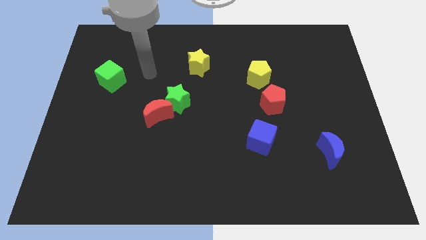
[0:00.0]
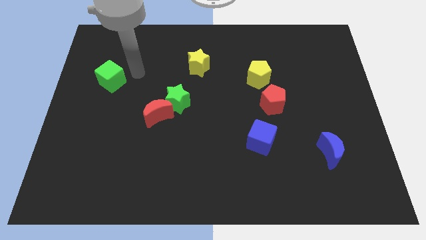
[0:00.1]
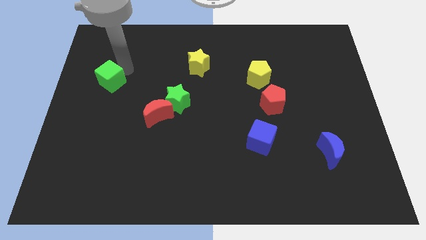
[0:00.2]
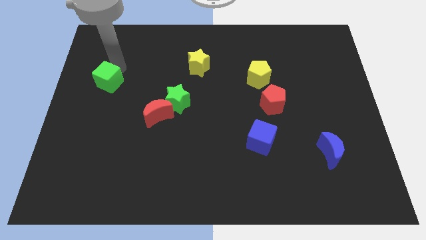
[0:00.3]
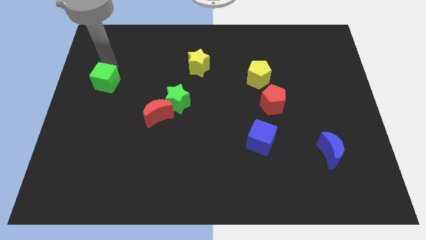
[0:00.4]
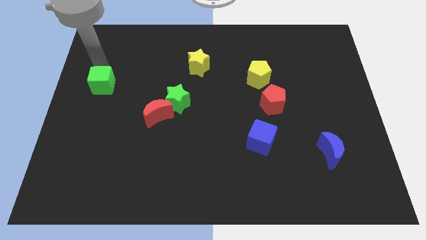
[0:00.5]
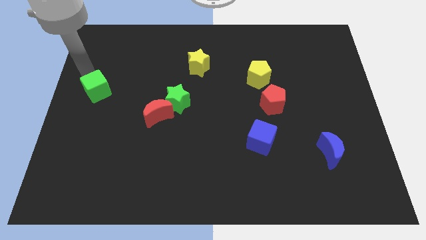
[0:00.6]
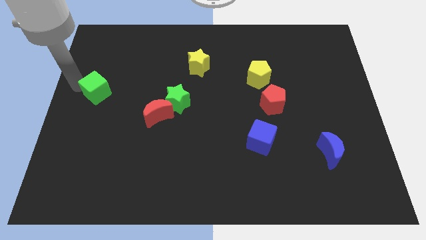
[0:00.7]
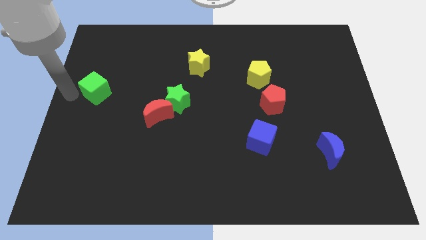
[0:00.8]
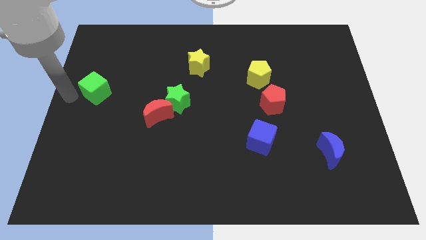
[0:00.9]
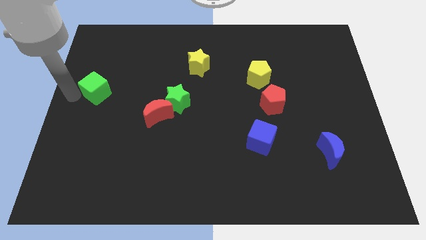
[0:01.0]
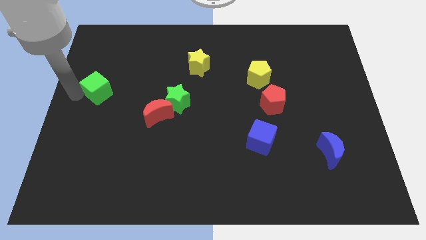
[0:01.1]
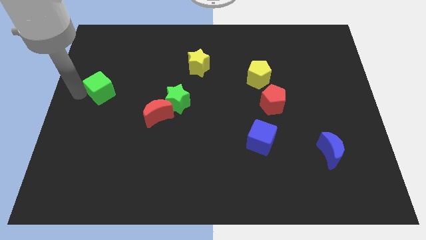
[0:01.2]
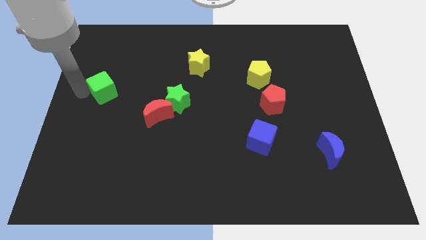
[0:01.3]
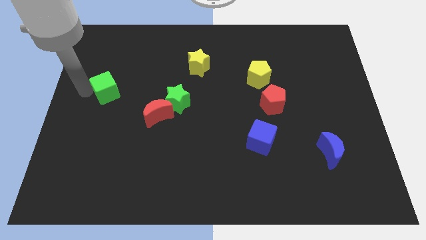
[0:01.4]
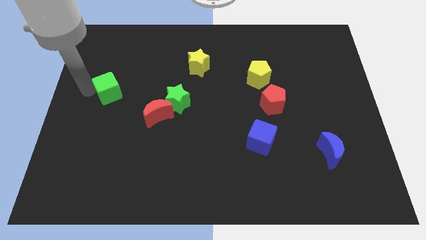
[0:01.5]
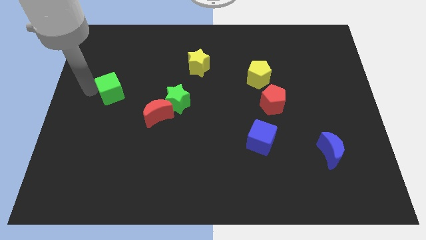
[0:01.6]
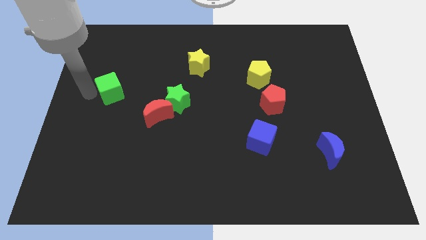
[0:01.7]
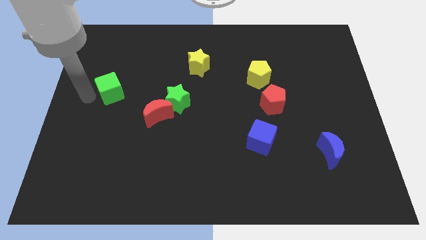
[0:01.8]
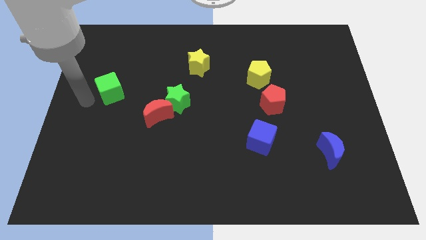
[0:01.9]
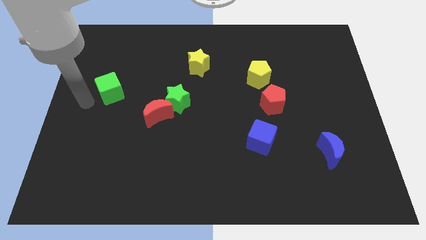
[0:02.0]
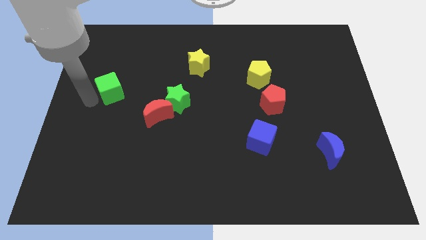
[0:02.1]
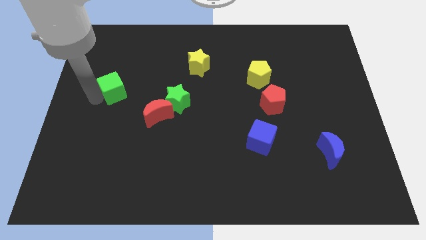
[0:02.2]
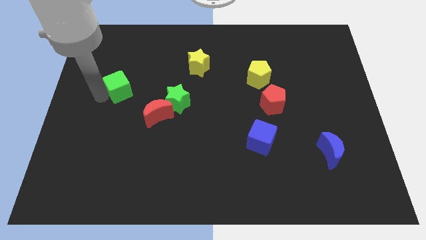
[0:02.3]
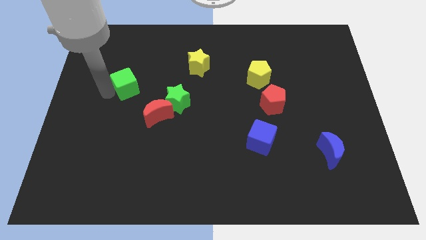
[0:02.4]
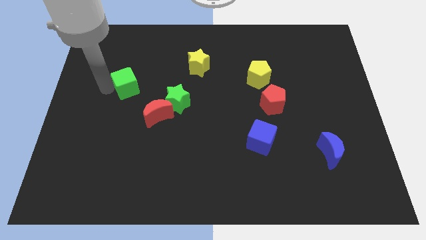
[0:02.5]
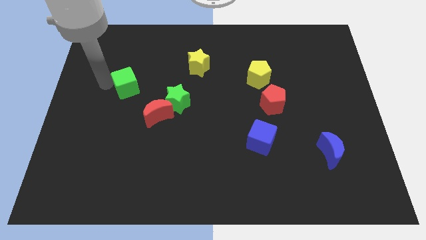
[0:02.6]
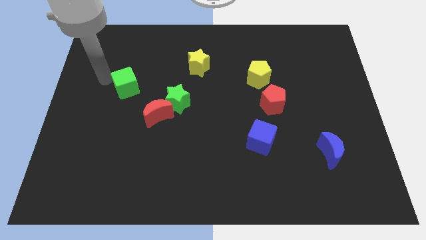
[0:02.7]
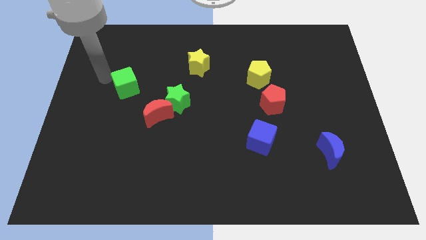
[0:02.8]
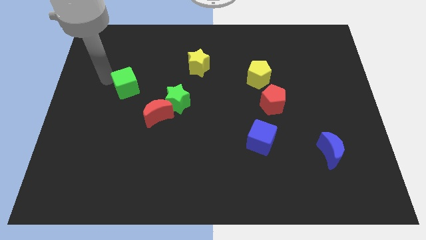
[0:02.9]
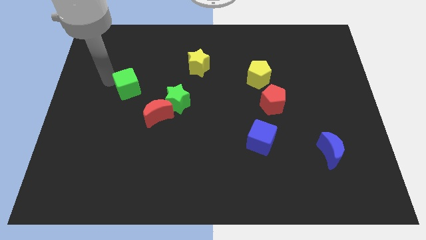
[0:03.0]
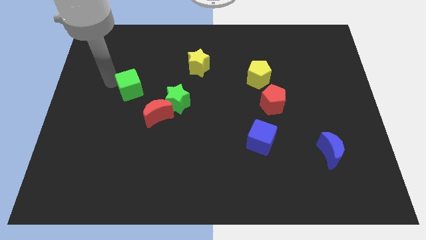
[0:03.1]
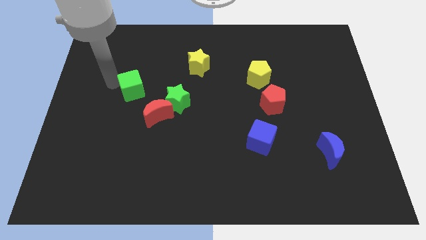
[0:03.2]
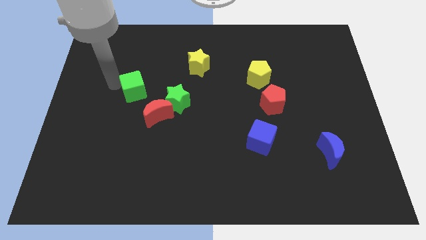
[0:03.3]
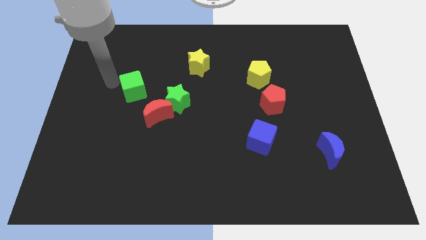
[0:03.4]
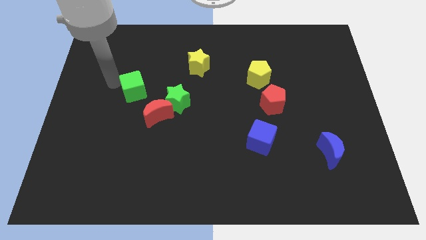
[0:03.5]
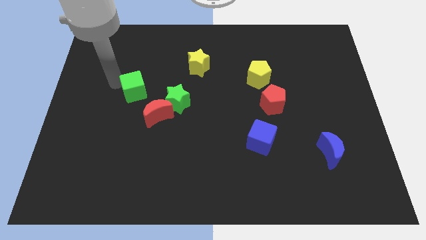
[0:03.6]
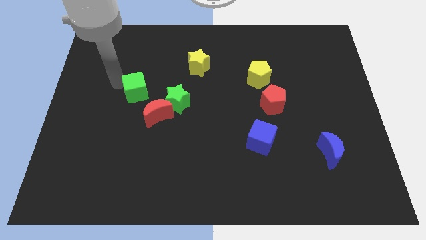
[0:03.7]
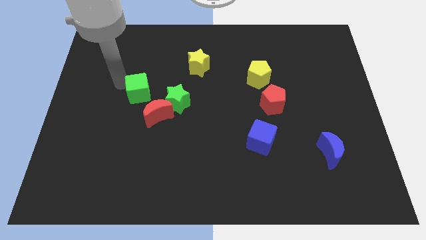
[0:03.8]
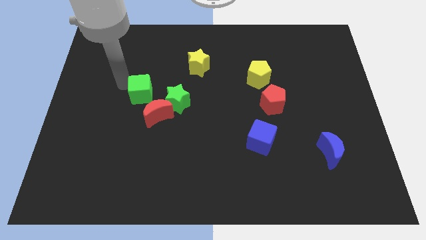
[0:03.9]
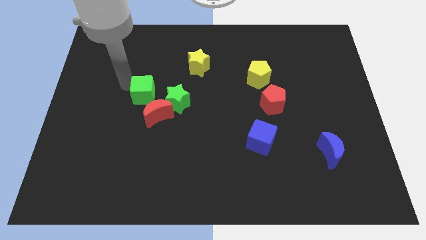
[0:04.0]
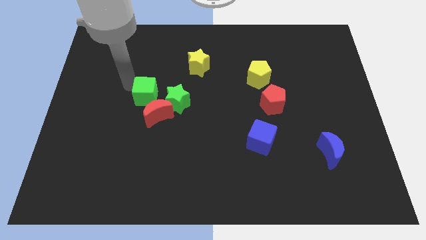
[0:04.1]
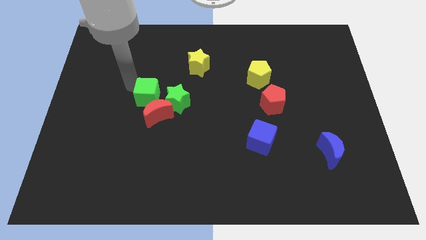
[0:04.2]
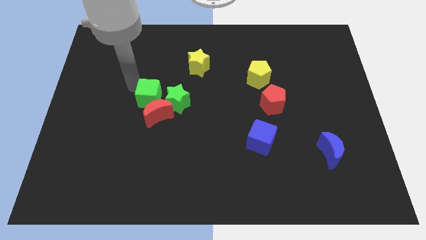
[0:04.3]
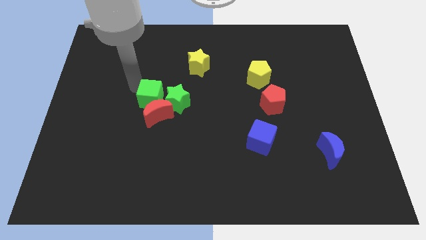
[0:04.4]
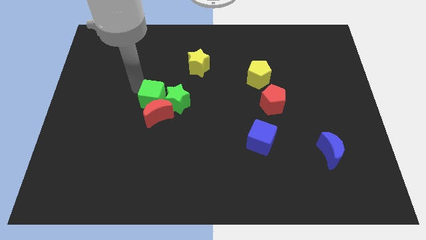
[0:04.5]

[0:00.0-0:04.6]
move the green cube next to the green star

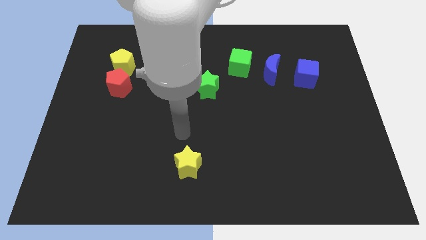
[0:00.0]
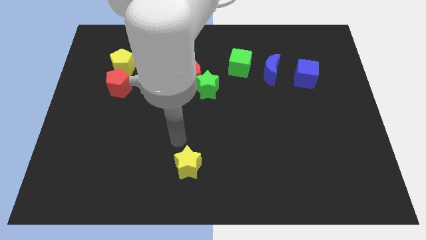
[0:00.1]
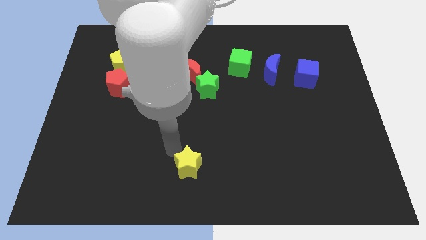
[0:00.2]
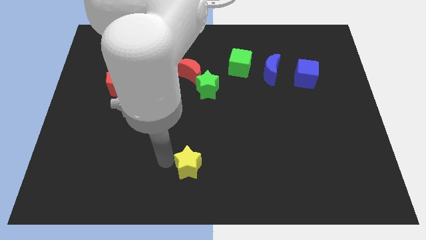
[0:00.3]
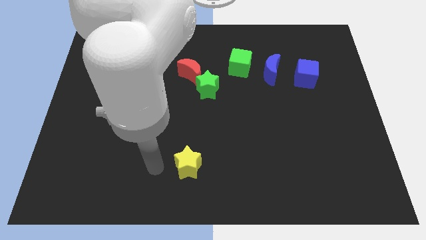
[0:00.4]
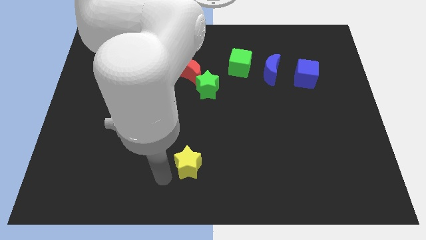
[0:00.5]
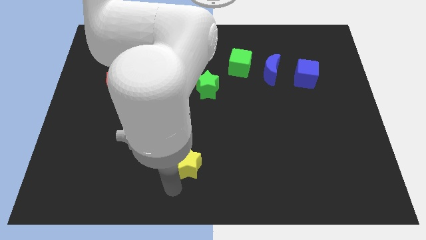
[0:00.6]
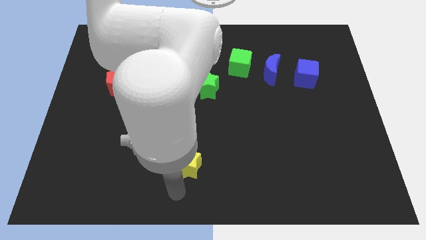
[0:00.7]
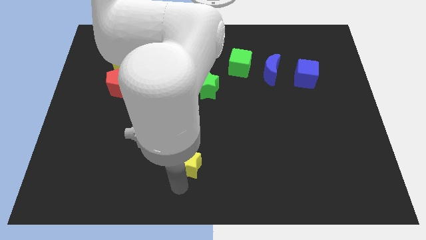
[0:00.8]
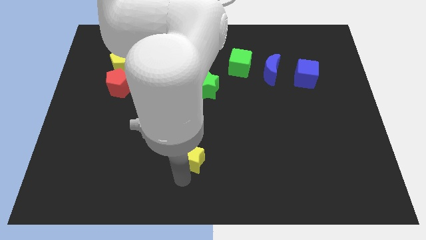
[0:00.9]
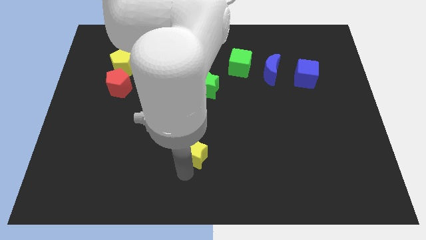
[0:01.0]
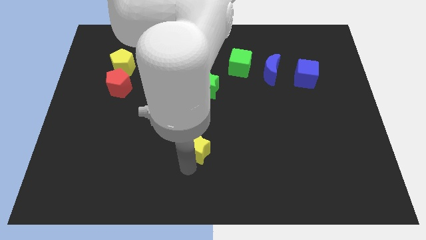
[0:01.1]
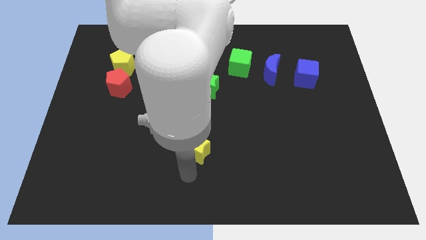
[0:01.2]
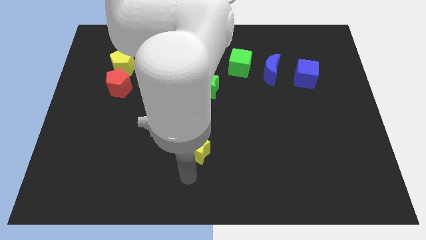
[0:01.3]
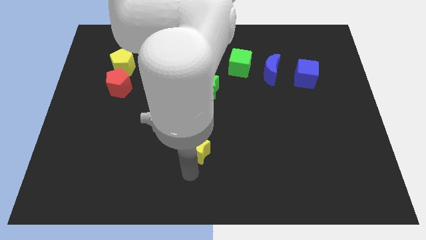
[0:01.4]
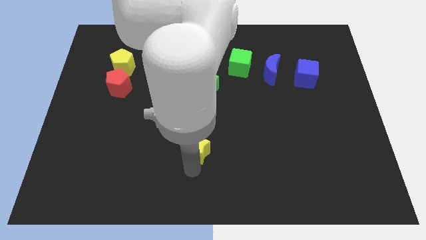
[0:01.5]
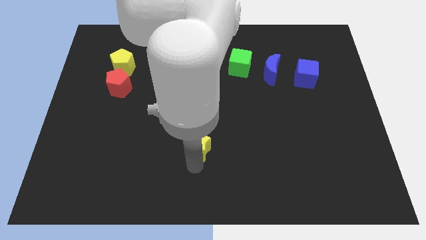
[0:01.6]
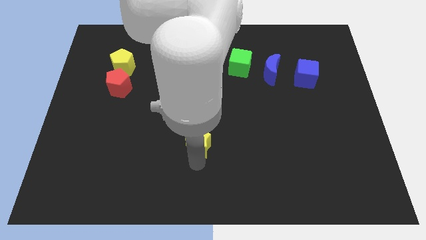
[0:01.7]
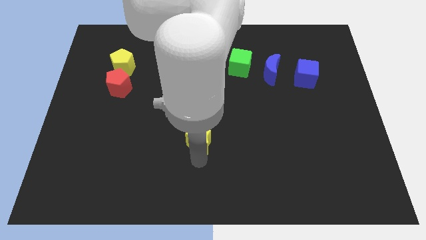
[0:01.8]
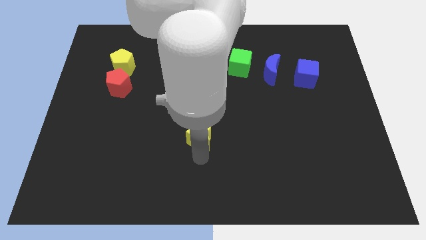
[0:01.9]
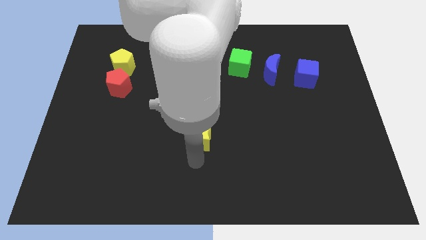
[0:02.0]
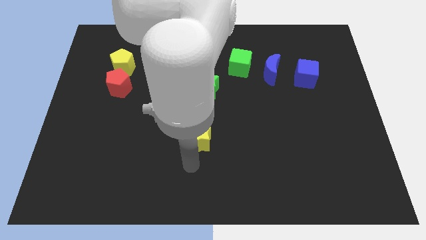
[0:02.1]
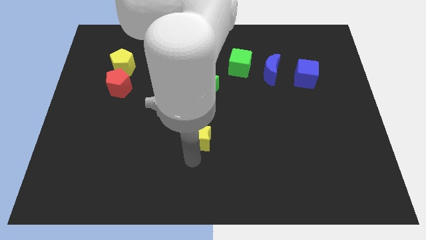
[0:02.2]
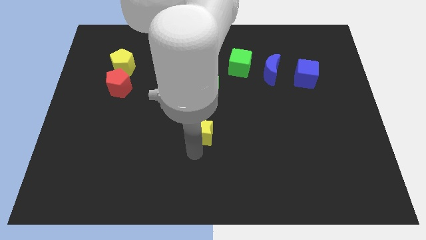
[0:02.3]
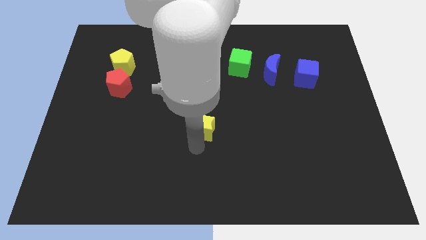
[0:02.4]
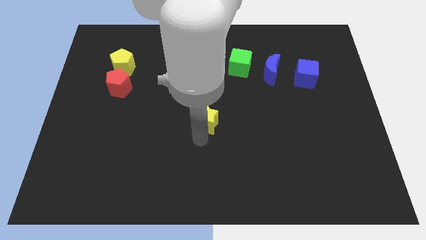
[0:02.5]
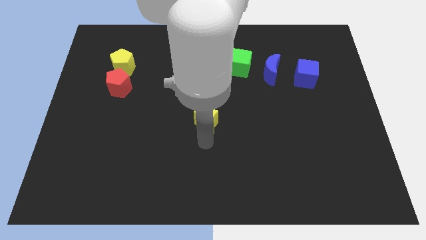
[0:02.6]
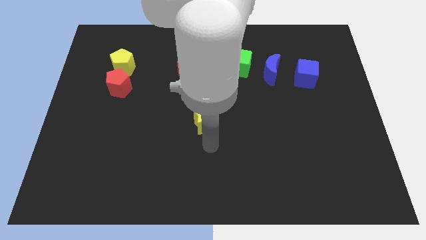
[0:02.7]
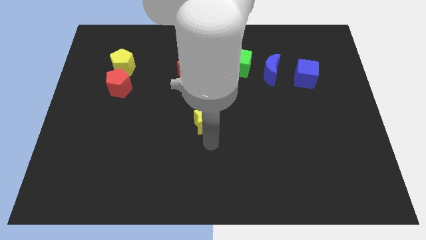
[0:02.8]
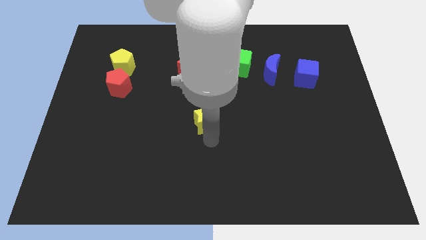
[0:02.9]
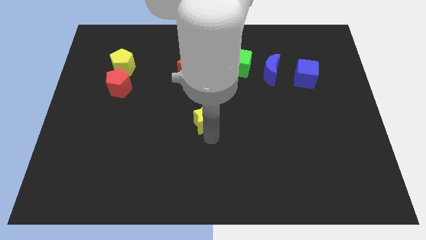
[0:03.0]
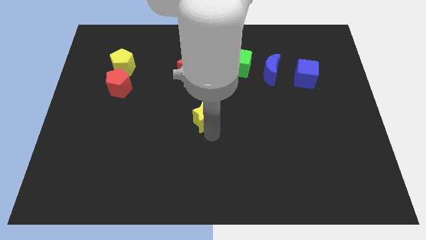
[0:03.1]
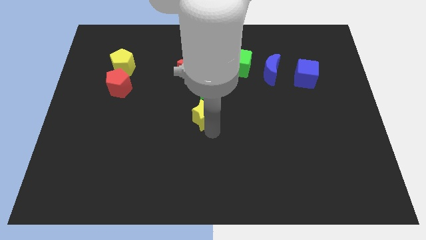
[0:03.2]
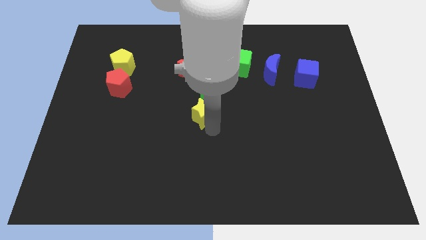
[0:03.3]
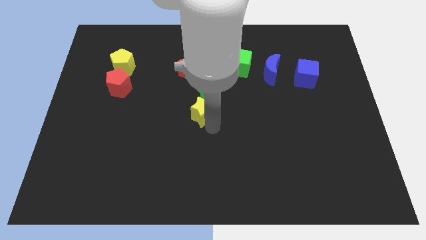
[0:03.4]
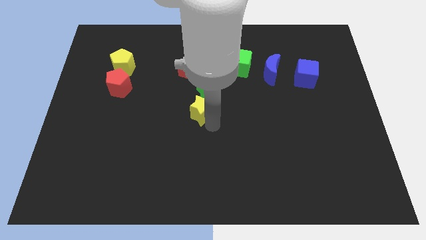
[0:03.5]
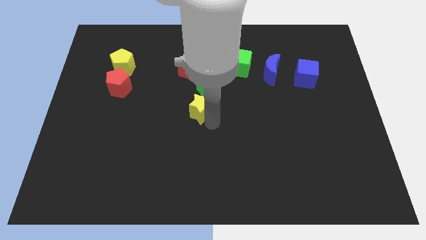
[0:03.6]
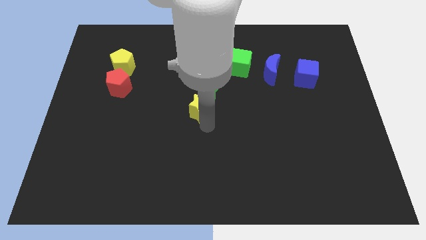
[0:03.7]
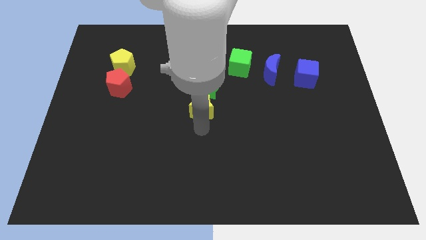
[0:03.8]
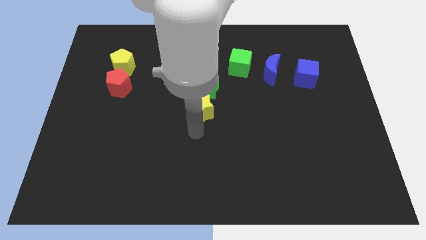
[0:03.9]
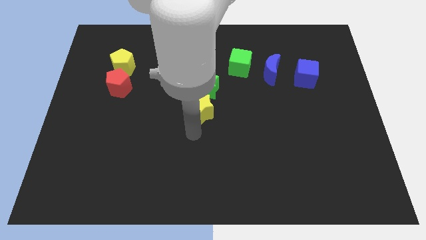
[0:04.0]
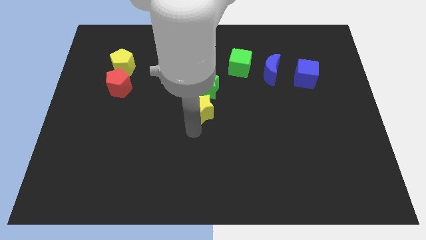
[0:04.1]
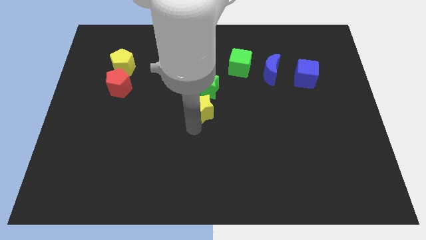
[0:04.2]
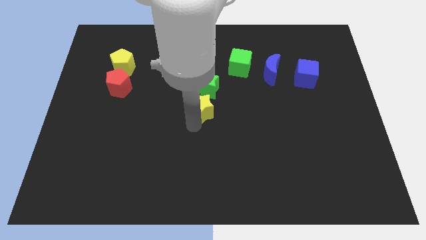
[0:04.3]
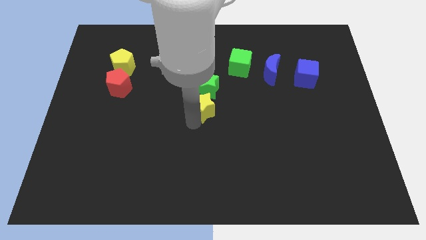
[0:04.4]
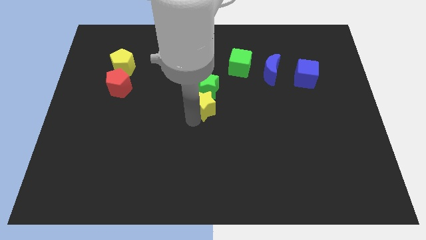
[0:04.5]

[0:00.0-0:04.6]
move the yellow star close to the green star
